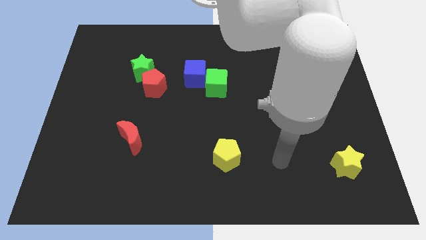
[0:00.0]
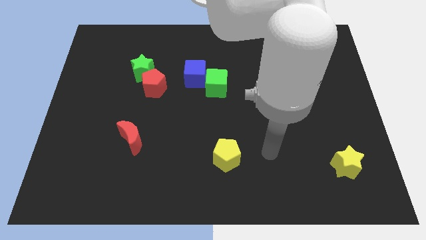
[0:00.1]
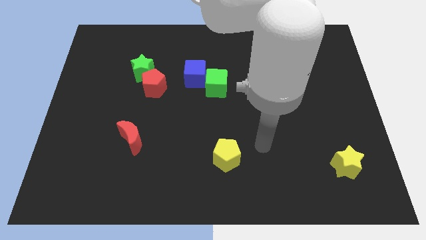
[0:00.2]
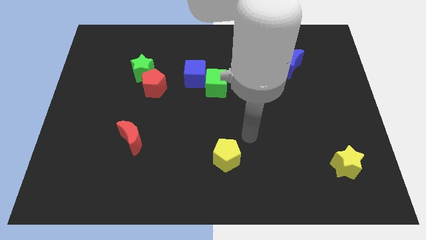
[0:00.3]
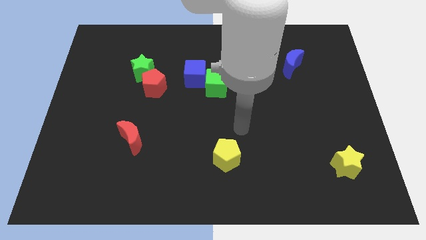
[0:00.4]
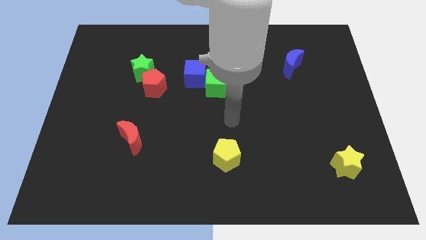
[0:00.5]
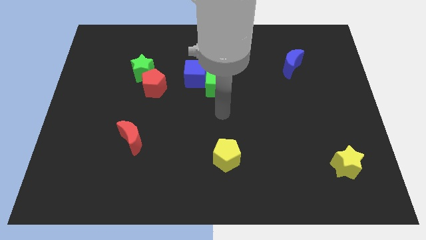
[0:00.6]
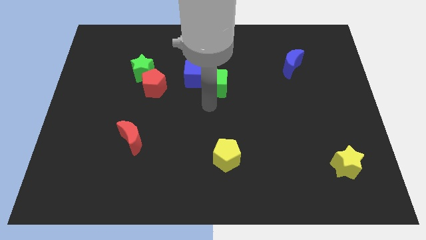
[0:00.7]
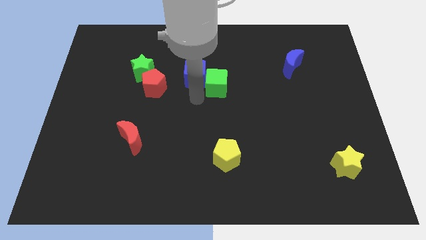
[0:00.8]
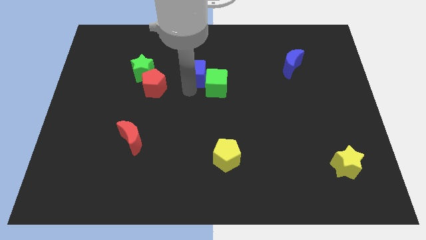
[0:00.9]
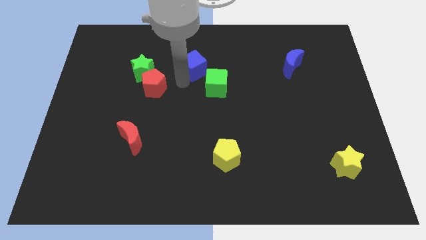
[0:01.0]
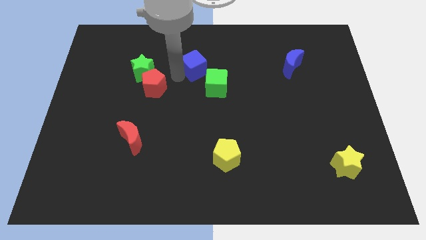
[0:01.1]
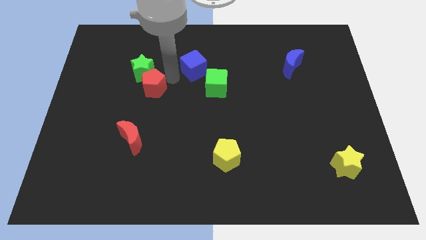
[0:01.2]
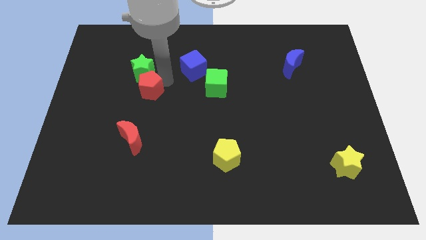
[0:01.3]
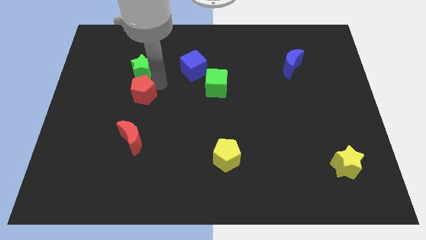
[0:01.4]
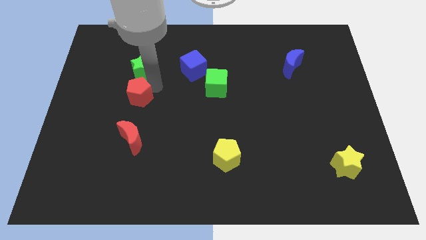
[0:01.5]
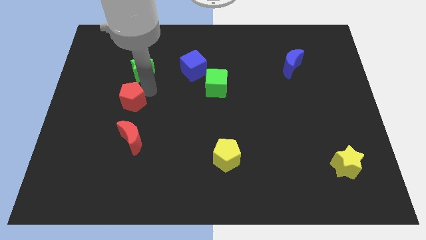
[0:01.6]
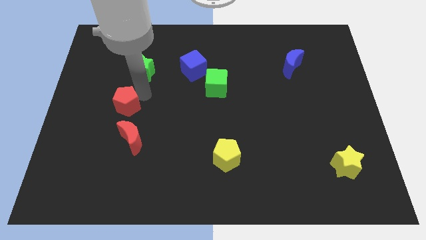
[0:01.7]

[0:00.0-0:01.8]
move the red pentagon a little downwards and then left

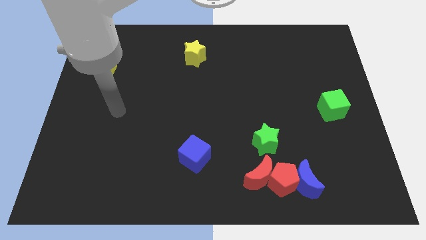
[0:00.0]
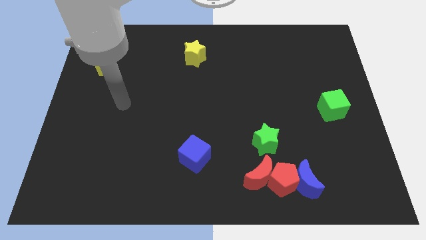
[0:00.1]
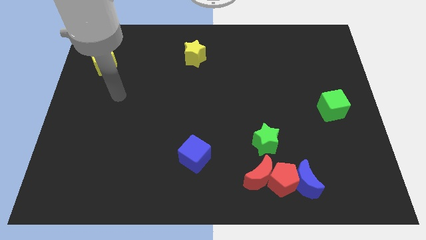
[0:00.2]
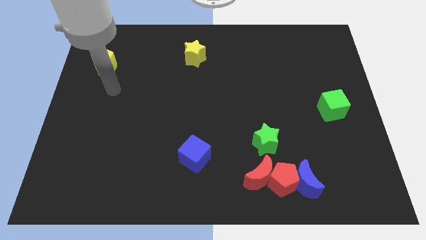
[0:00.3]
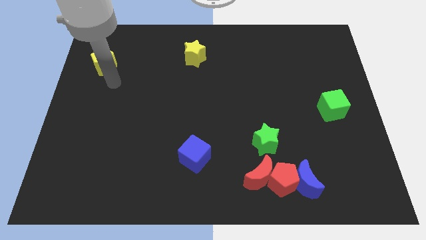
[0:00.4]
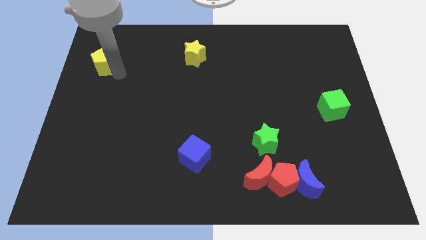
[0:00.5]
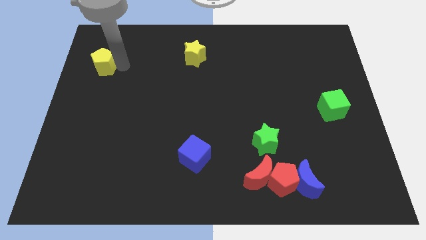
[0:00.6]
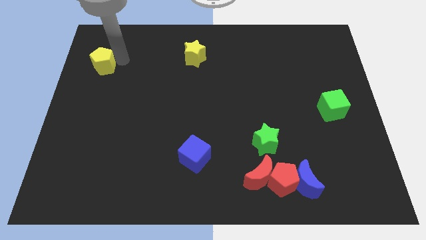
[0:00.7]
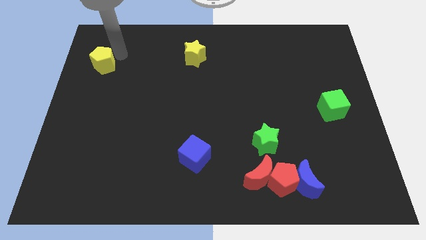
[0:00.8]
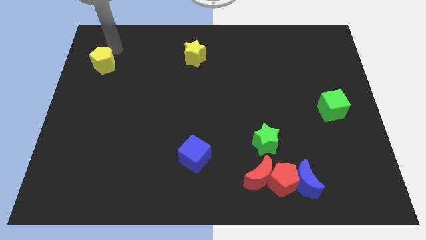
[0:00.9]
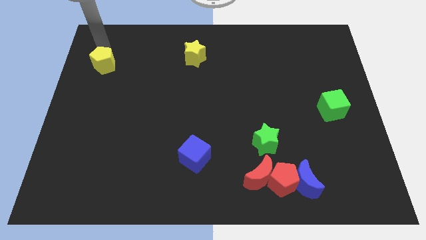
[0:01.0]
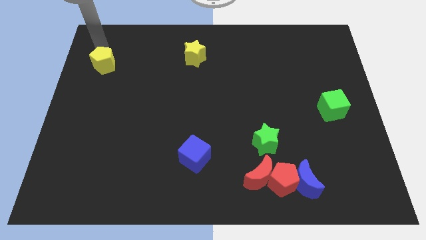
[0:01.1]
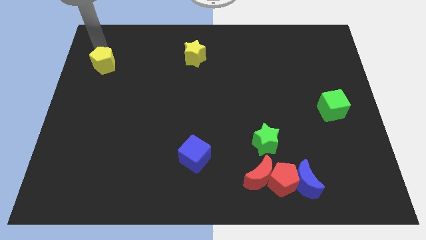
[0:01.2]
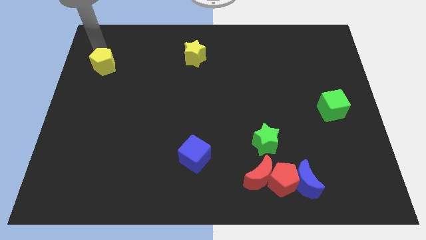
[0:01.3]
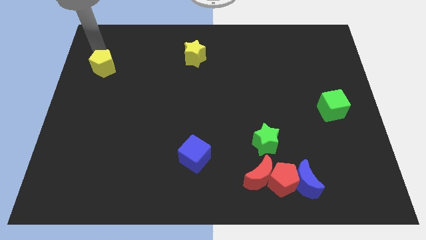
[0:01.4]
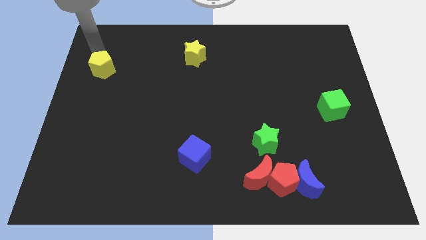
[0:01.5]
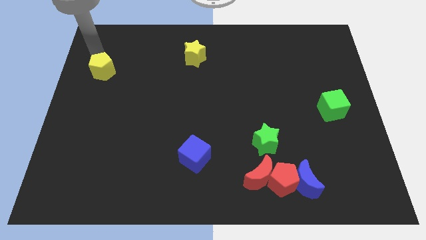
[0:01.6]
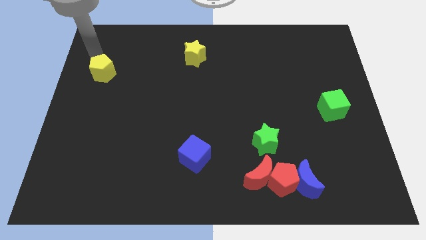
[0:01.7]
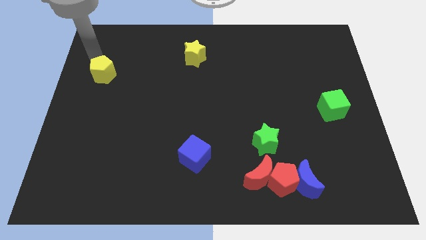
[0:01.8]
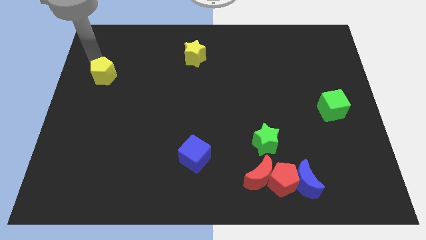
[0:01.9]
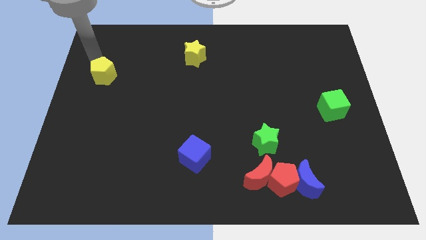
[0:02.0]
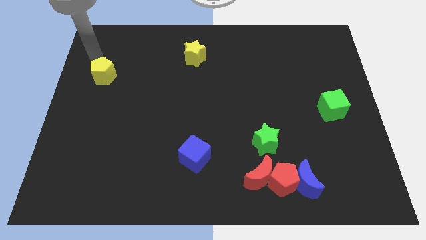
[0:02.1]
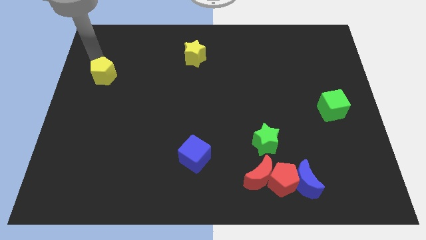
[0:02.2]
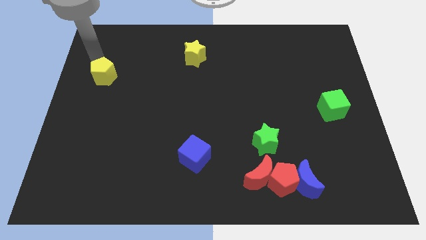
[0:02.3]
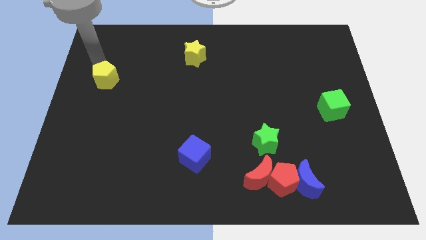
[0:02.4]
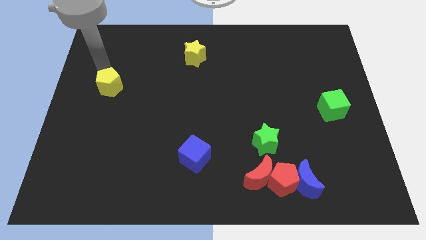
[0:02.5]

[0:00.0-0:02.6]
slide the yellow pentagon down a bit

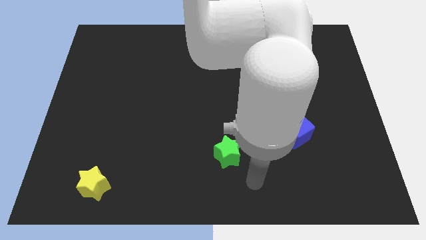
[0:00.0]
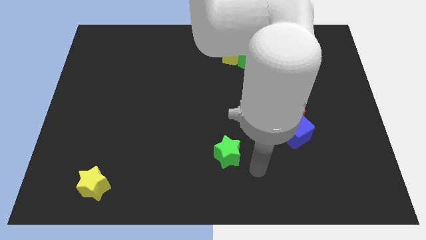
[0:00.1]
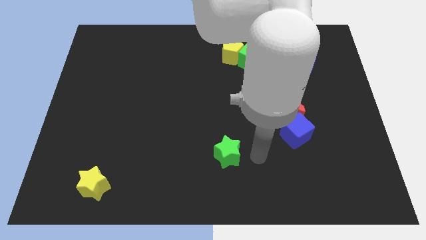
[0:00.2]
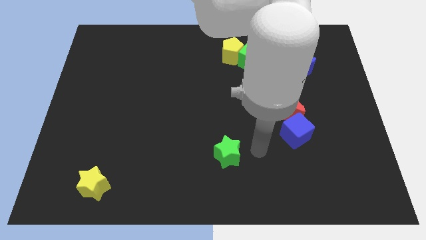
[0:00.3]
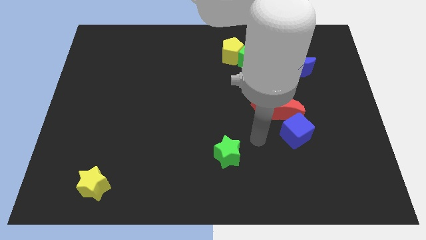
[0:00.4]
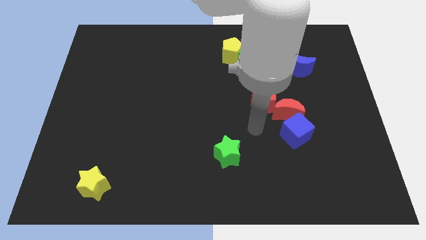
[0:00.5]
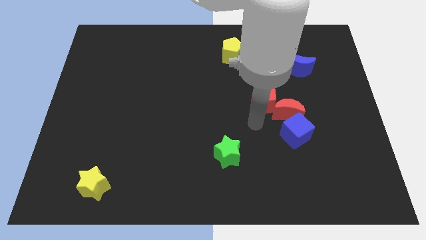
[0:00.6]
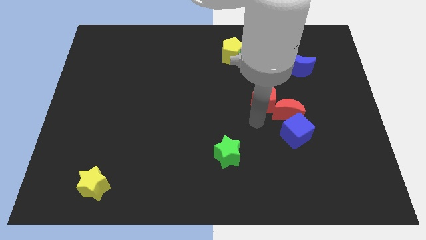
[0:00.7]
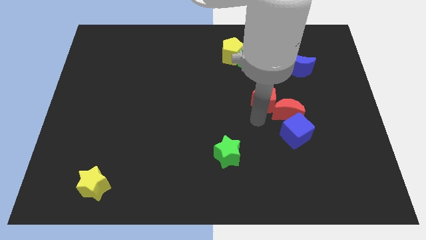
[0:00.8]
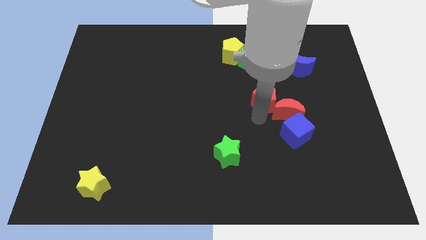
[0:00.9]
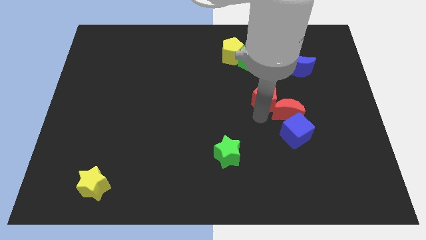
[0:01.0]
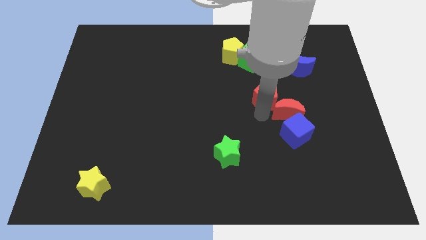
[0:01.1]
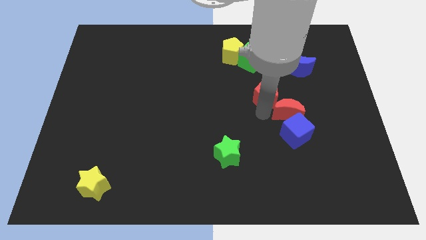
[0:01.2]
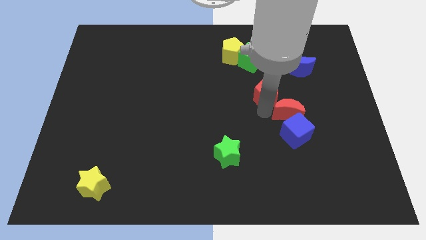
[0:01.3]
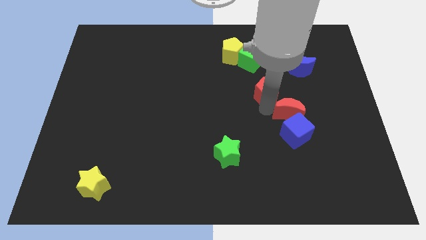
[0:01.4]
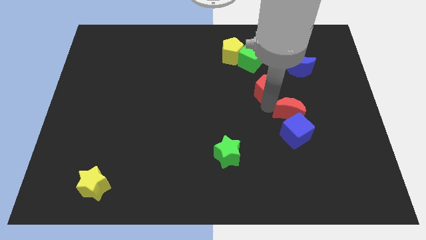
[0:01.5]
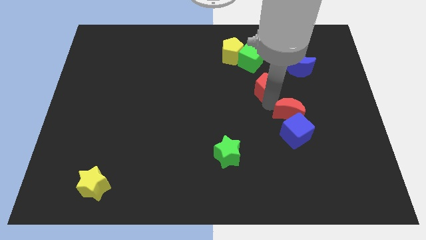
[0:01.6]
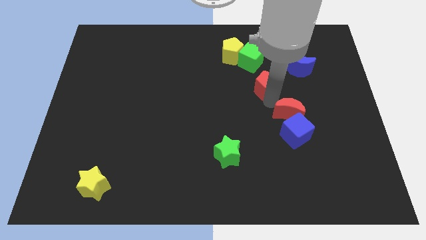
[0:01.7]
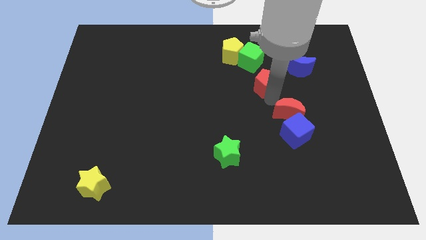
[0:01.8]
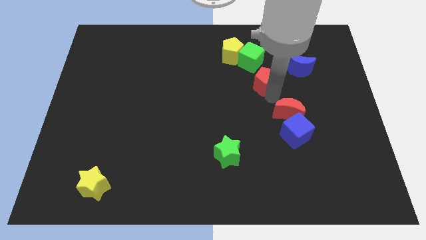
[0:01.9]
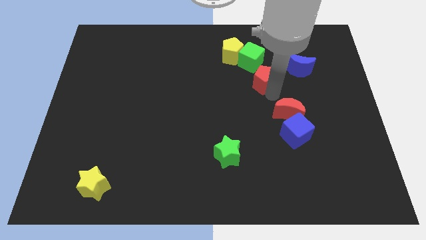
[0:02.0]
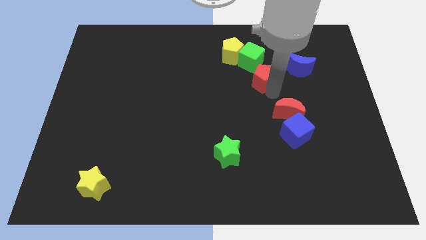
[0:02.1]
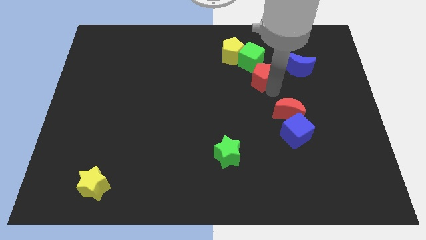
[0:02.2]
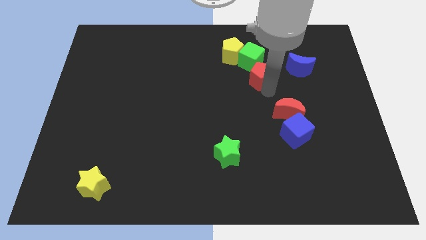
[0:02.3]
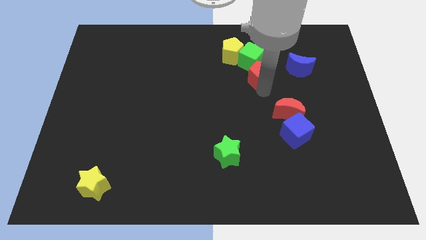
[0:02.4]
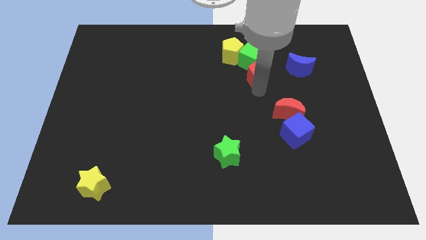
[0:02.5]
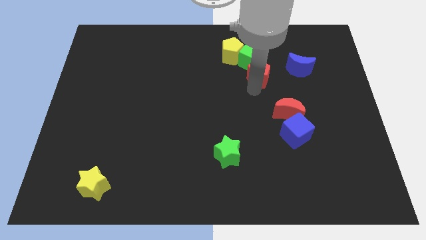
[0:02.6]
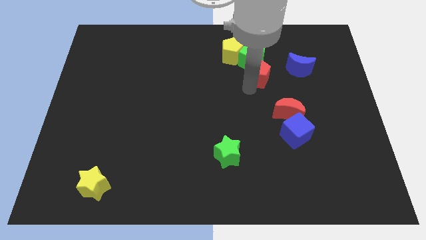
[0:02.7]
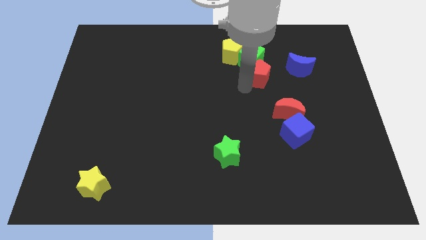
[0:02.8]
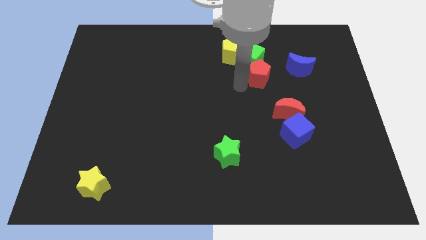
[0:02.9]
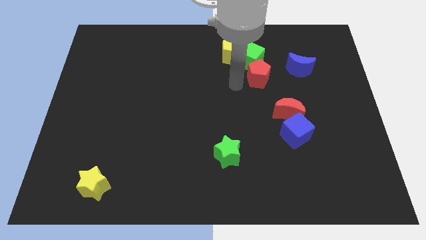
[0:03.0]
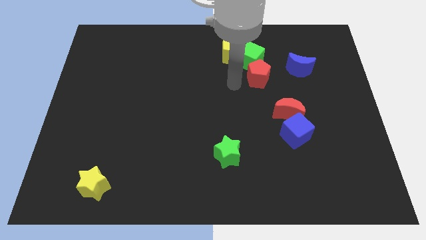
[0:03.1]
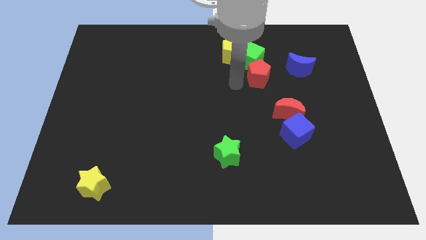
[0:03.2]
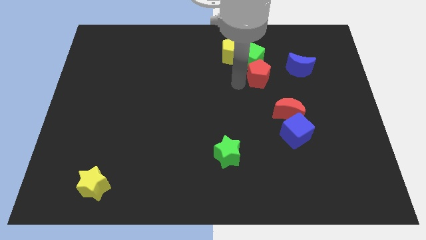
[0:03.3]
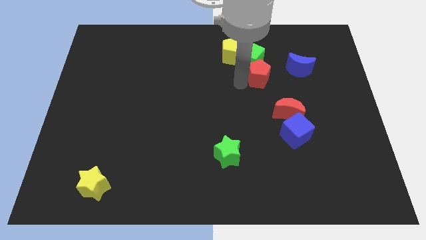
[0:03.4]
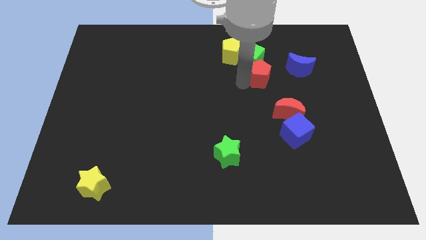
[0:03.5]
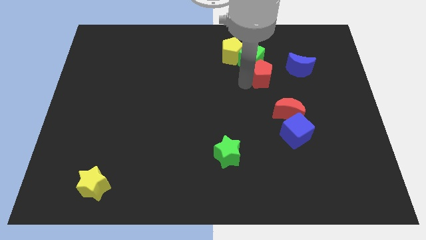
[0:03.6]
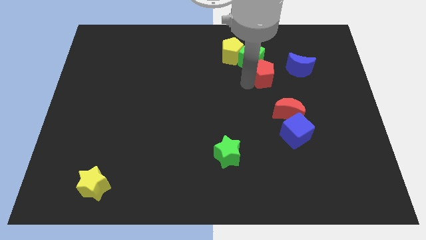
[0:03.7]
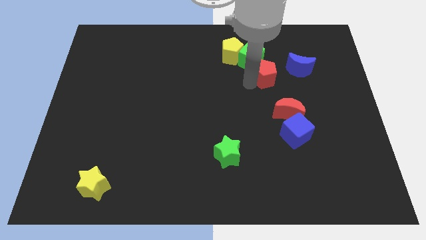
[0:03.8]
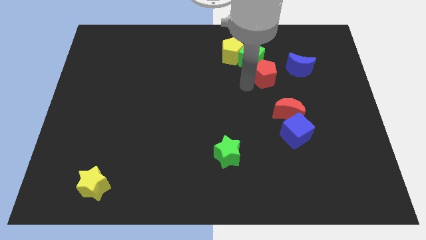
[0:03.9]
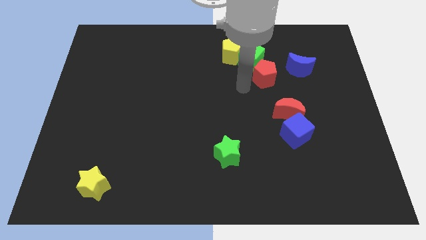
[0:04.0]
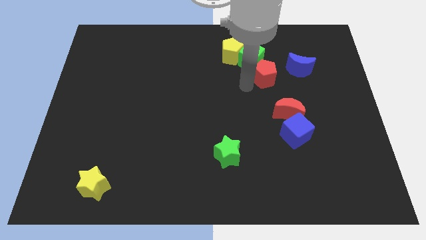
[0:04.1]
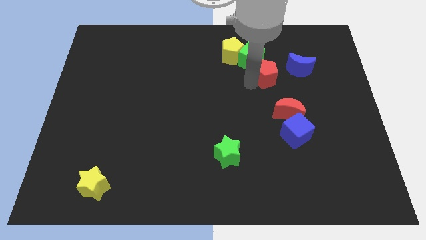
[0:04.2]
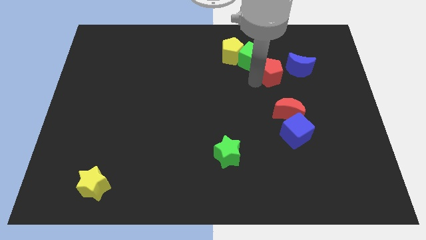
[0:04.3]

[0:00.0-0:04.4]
slightly slide the red pentagon upwards and then right
